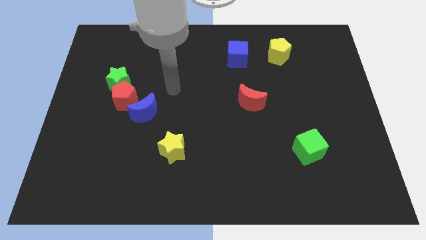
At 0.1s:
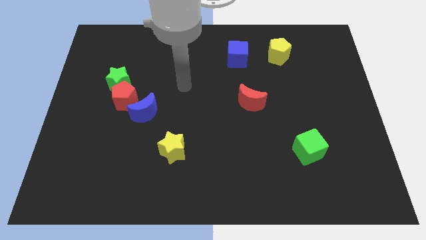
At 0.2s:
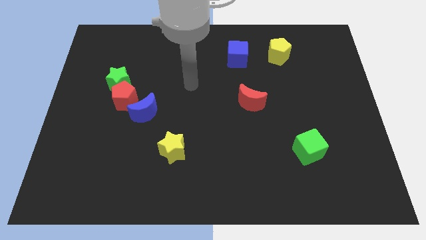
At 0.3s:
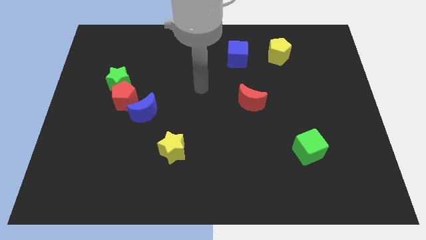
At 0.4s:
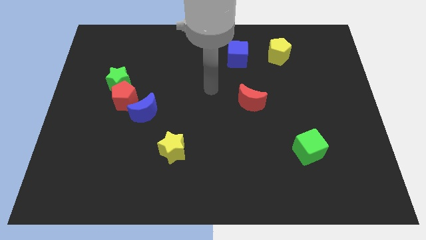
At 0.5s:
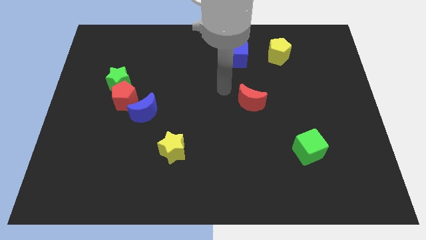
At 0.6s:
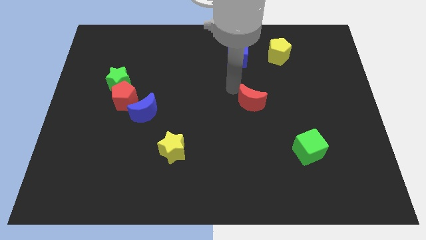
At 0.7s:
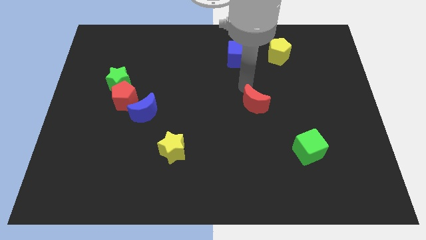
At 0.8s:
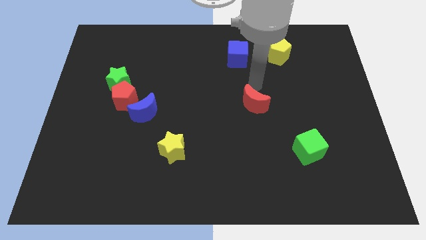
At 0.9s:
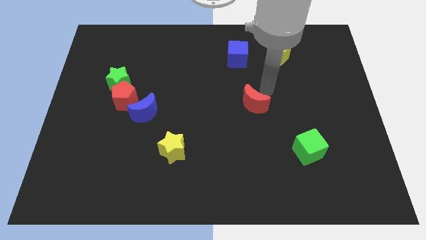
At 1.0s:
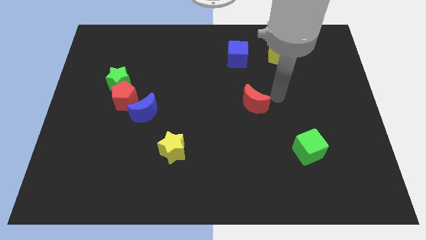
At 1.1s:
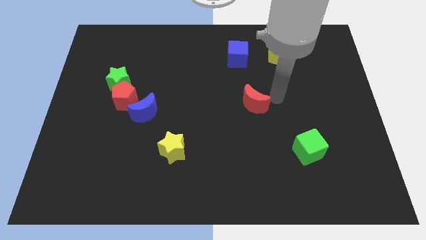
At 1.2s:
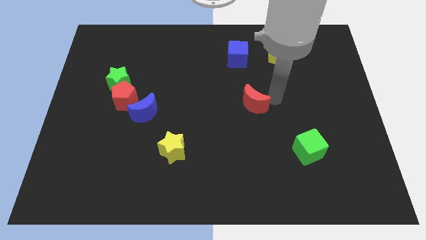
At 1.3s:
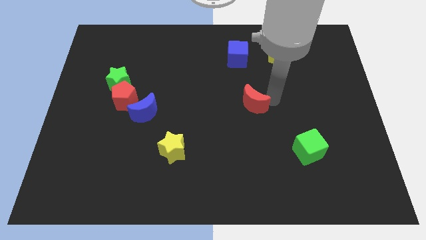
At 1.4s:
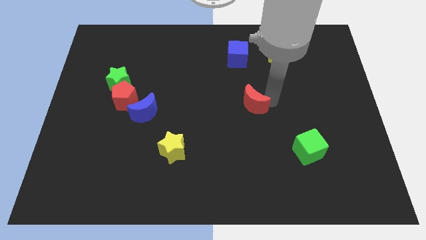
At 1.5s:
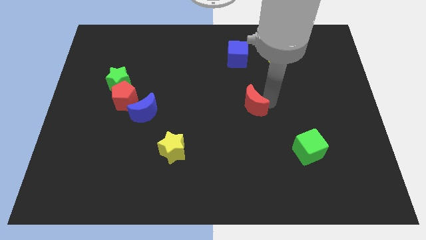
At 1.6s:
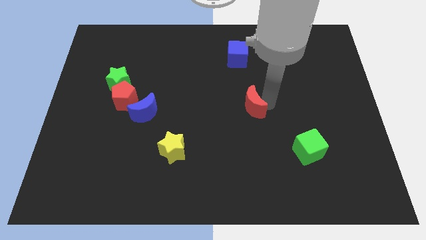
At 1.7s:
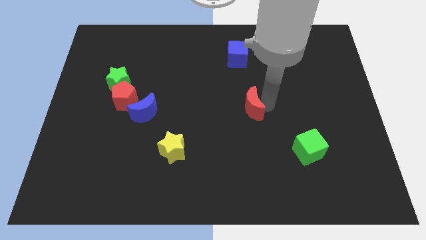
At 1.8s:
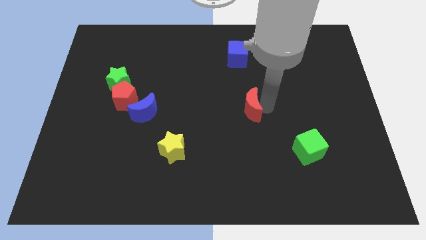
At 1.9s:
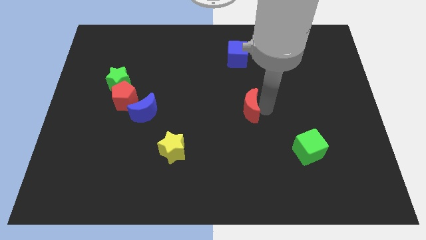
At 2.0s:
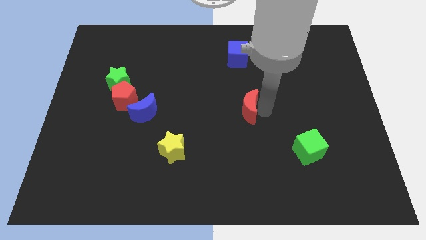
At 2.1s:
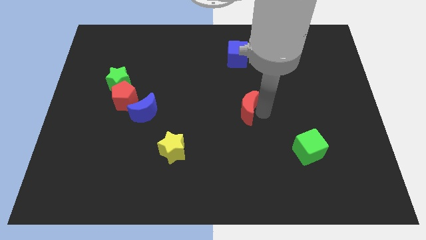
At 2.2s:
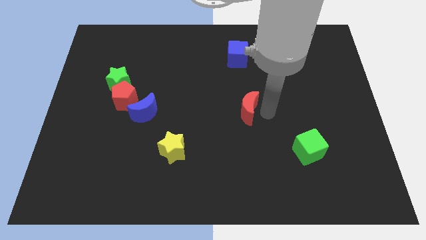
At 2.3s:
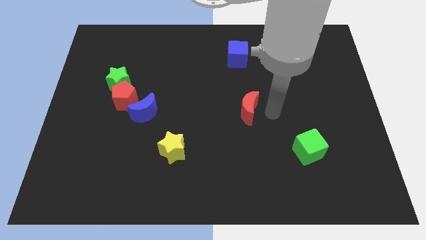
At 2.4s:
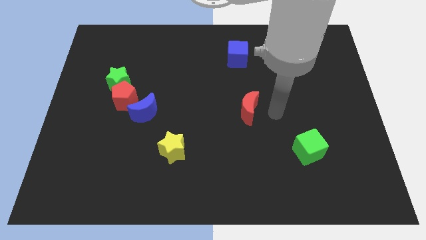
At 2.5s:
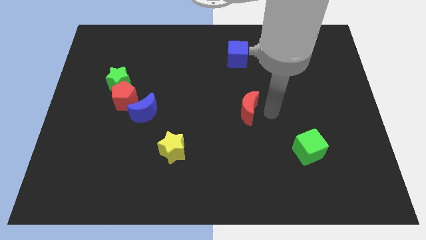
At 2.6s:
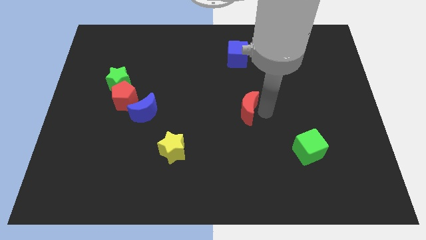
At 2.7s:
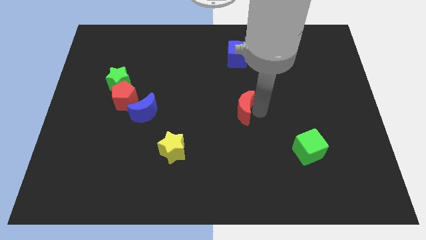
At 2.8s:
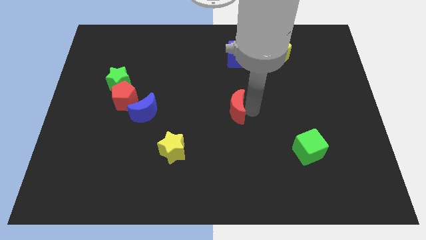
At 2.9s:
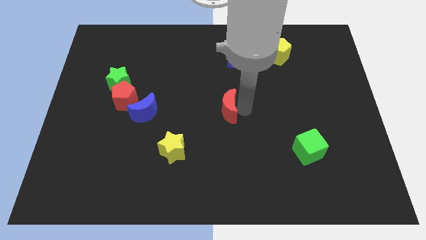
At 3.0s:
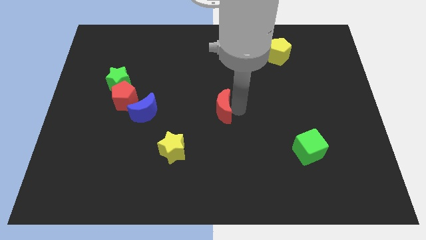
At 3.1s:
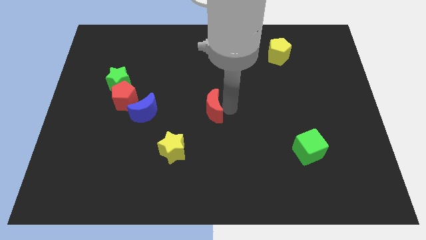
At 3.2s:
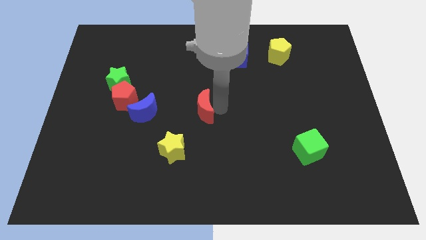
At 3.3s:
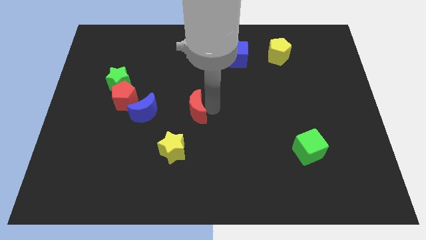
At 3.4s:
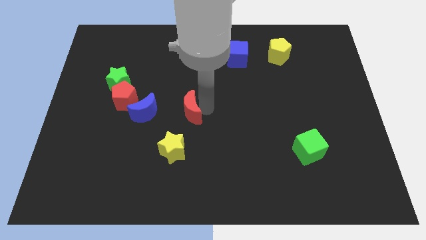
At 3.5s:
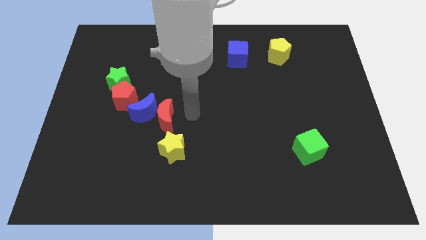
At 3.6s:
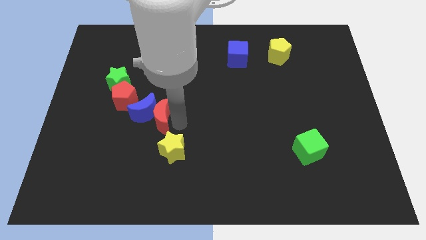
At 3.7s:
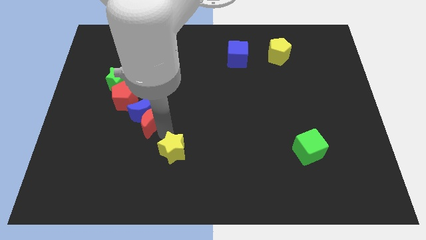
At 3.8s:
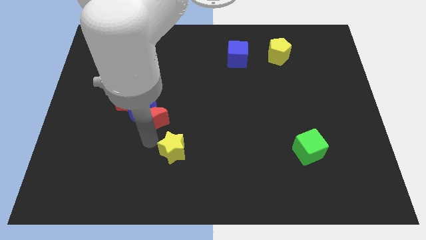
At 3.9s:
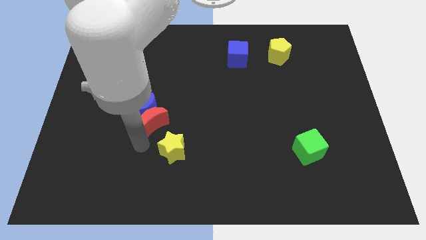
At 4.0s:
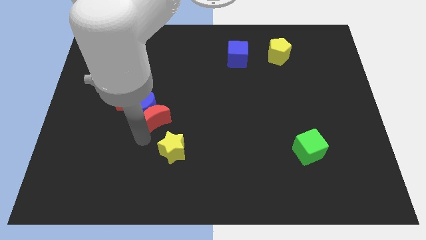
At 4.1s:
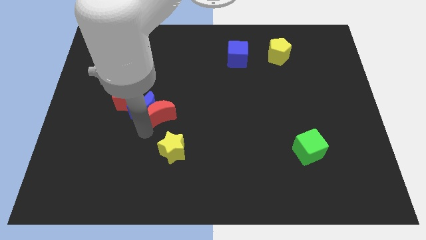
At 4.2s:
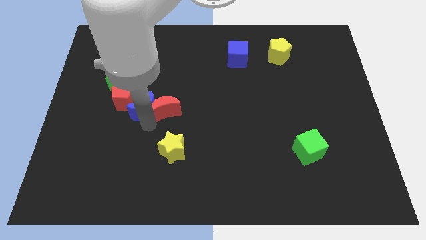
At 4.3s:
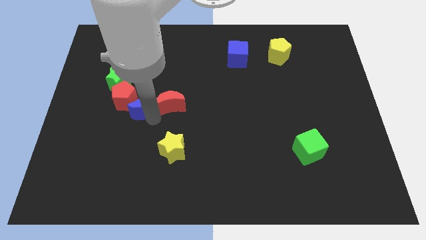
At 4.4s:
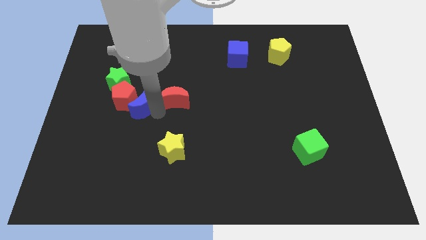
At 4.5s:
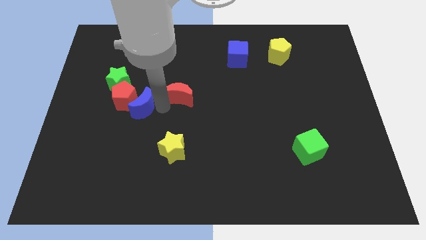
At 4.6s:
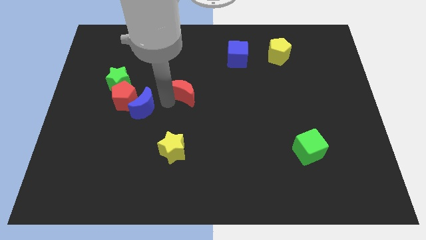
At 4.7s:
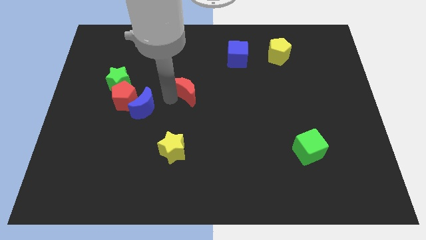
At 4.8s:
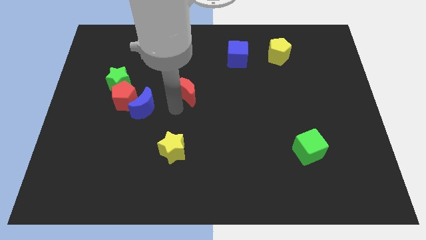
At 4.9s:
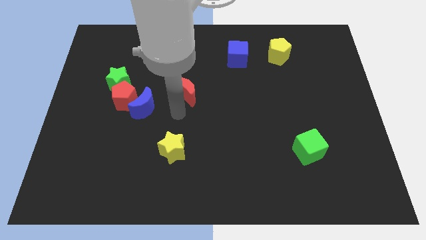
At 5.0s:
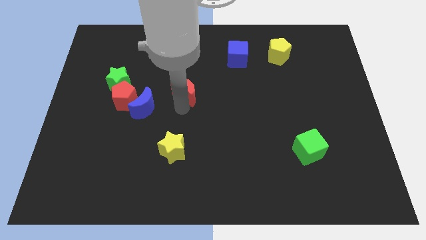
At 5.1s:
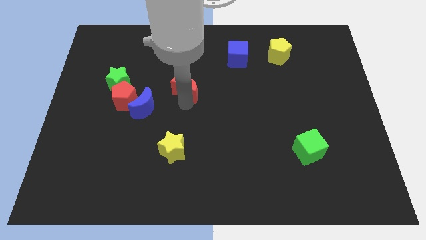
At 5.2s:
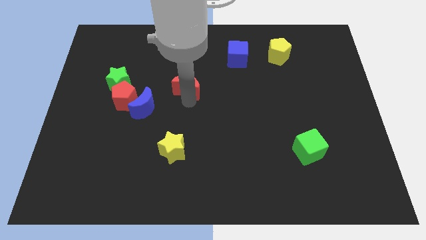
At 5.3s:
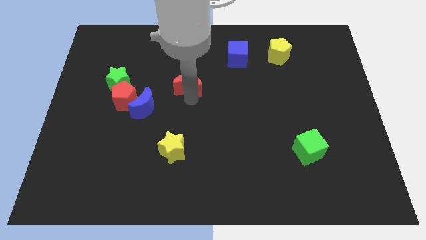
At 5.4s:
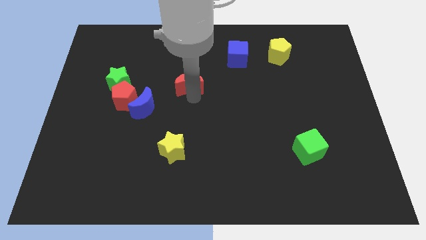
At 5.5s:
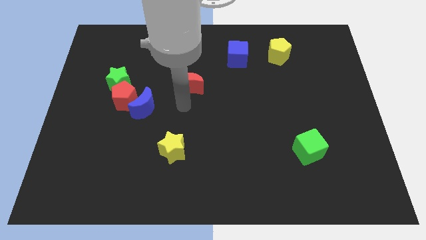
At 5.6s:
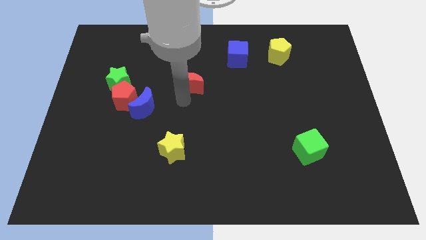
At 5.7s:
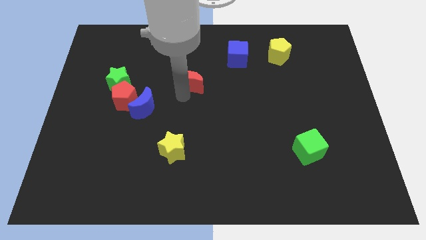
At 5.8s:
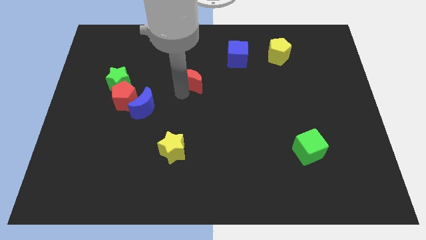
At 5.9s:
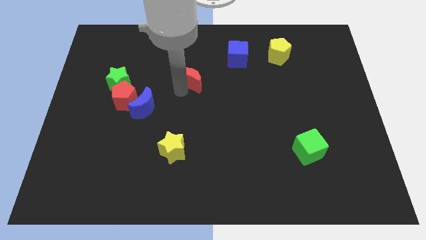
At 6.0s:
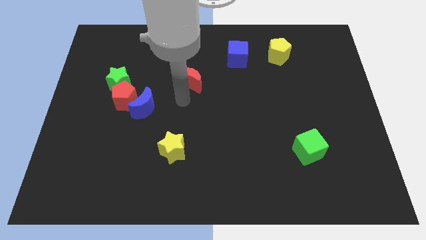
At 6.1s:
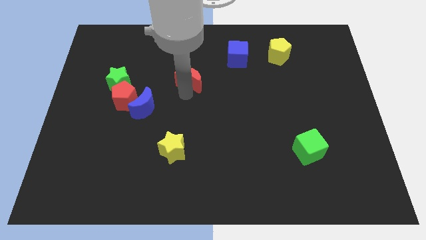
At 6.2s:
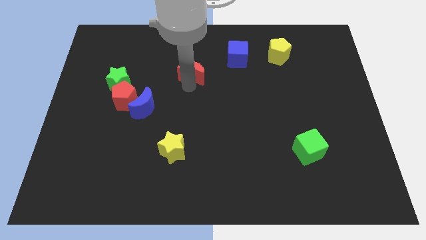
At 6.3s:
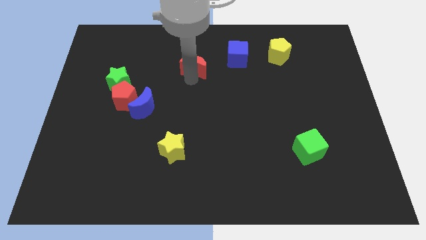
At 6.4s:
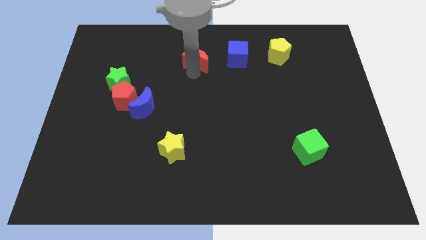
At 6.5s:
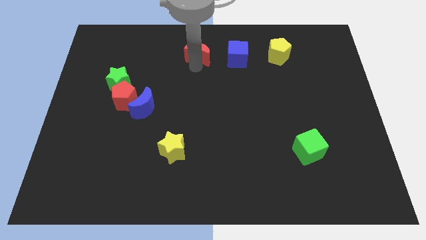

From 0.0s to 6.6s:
slide the red moon to the top side

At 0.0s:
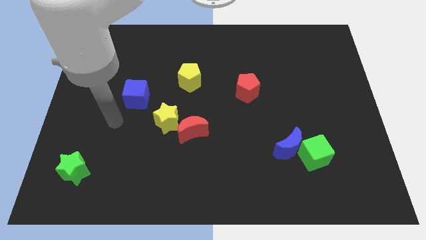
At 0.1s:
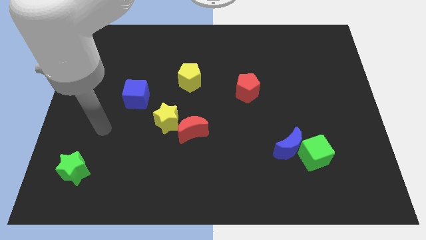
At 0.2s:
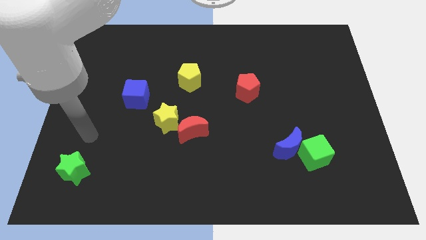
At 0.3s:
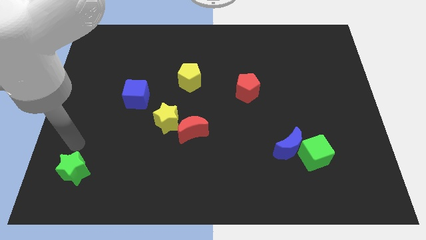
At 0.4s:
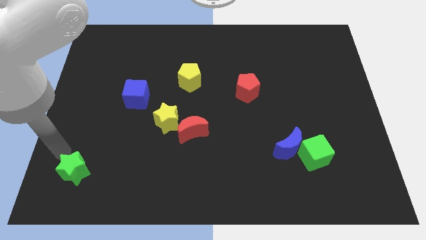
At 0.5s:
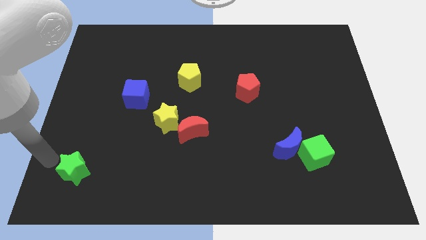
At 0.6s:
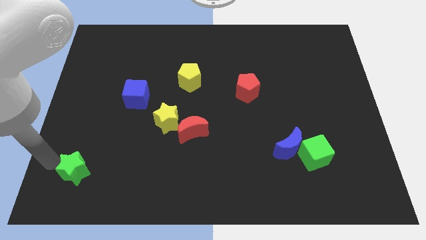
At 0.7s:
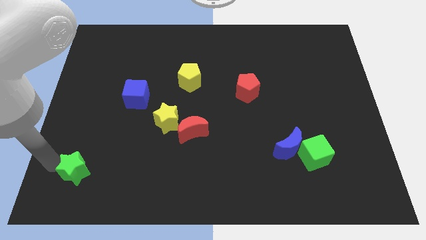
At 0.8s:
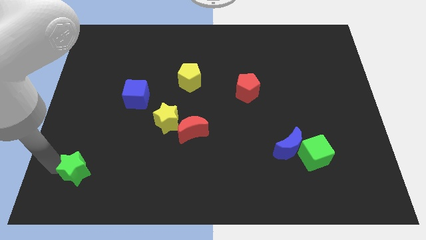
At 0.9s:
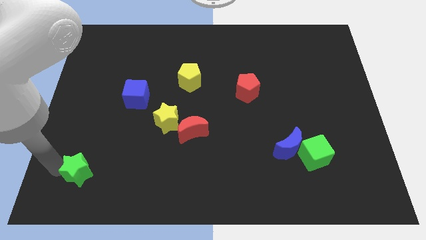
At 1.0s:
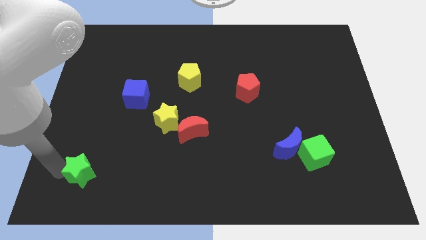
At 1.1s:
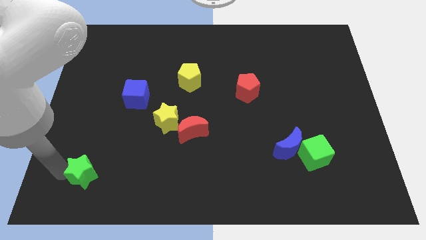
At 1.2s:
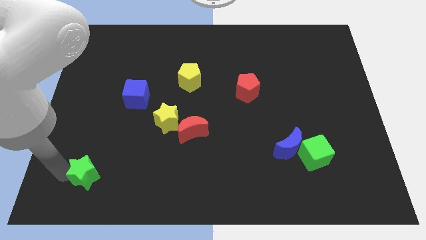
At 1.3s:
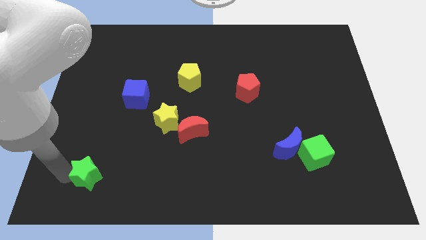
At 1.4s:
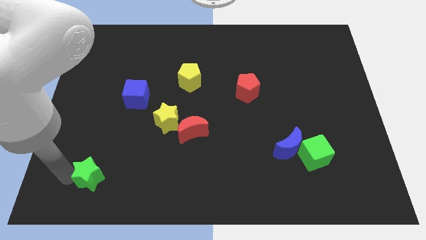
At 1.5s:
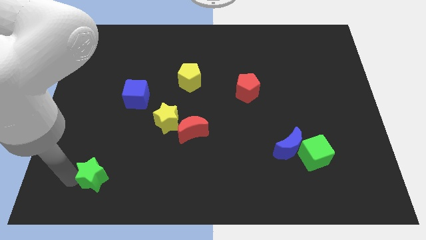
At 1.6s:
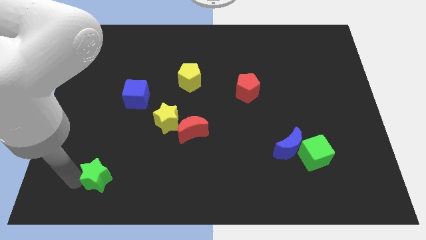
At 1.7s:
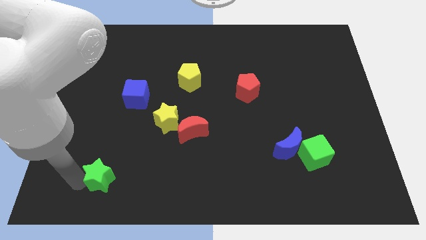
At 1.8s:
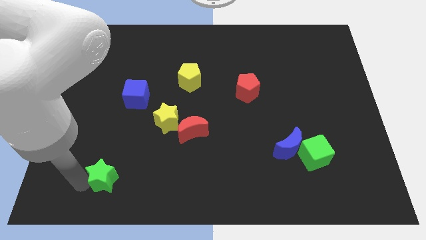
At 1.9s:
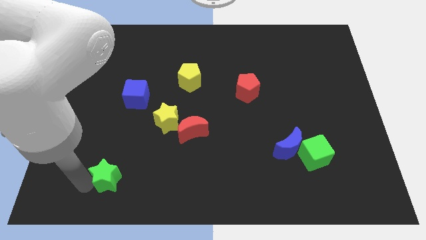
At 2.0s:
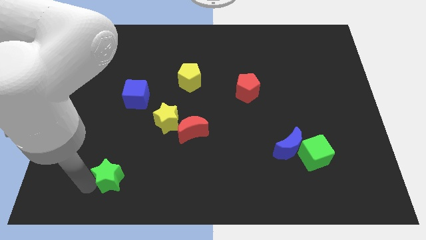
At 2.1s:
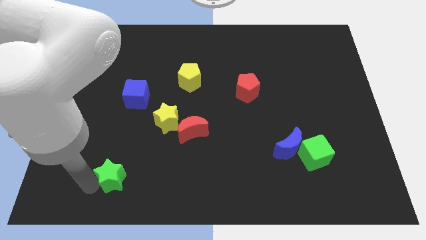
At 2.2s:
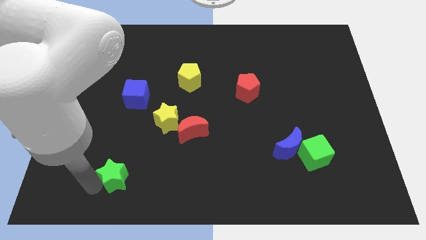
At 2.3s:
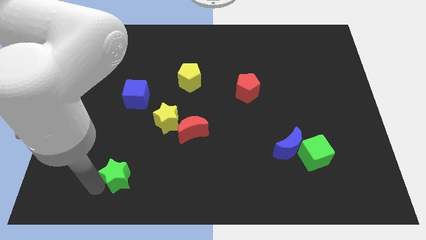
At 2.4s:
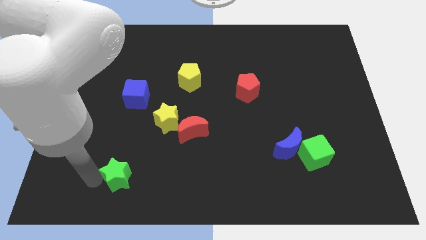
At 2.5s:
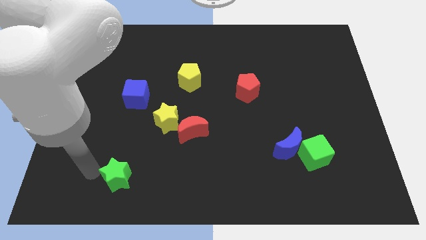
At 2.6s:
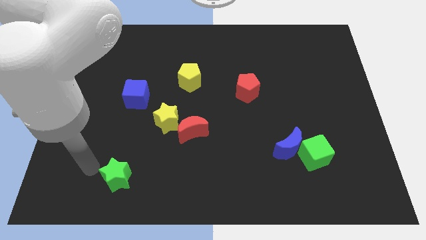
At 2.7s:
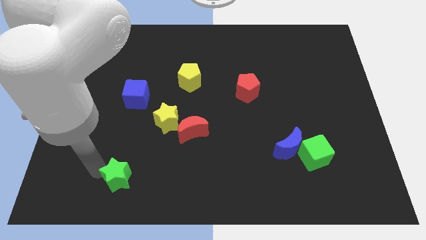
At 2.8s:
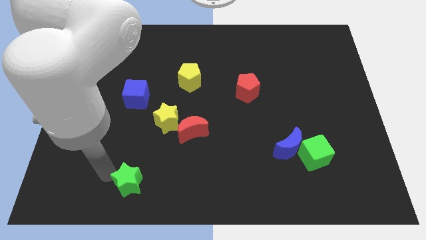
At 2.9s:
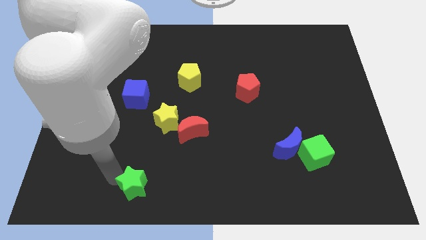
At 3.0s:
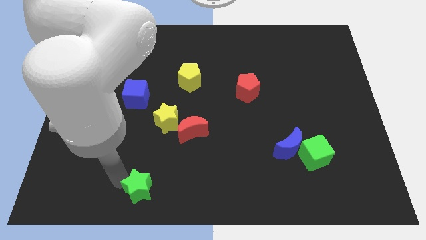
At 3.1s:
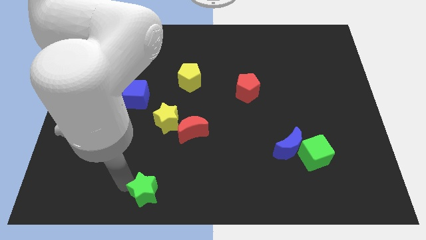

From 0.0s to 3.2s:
push the green star to the bottom
